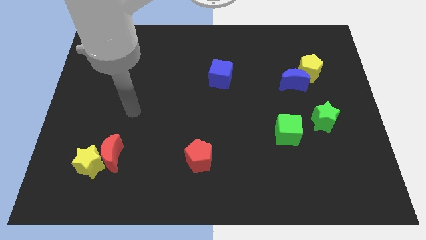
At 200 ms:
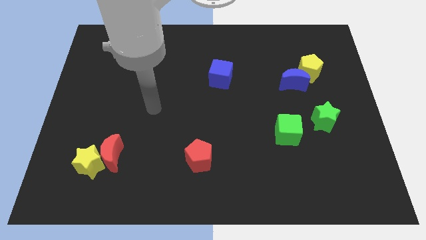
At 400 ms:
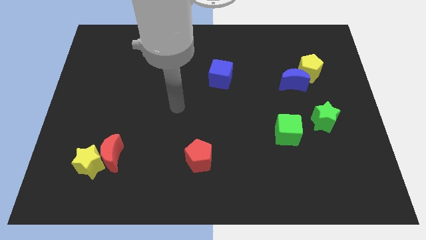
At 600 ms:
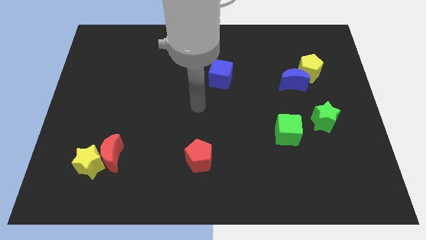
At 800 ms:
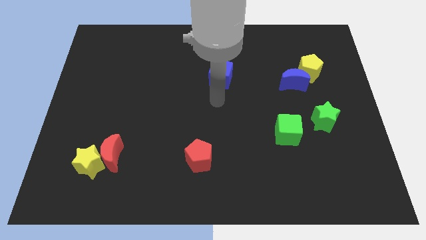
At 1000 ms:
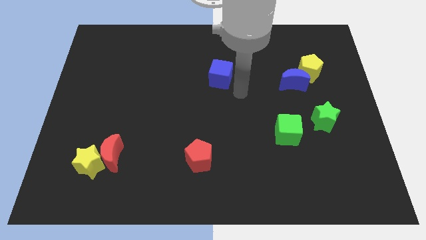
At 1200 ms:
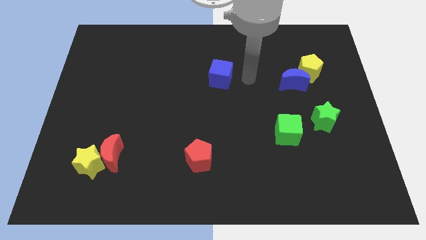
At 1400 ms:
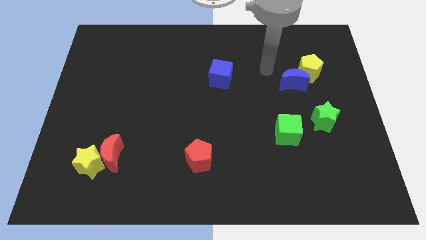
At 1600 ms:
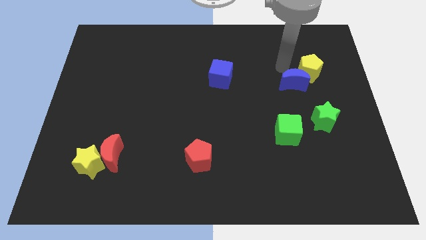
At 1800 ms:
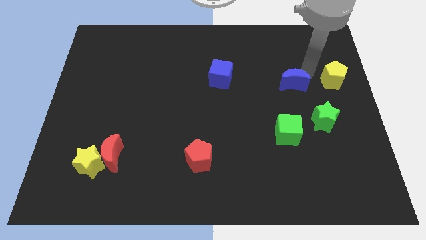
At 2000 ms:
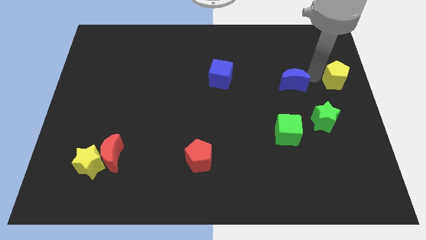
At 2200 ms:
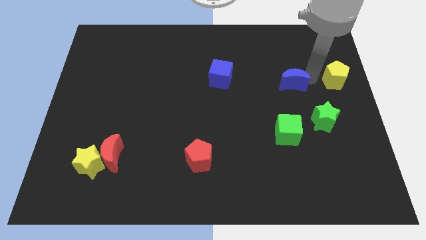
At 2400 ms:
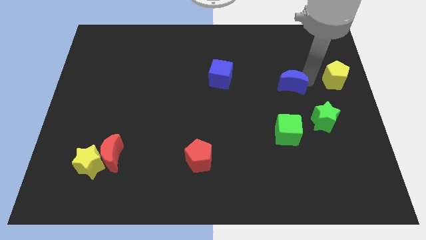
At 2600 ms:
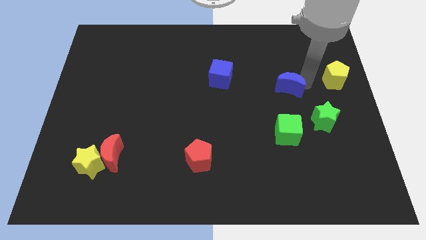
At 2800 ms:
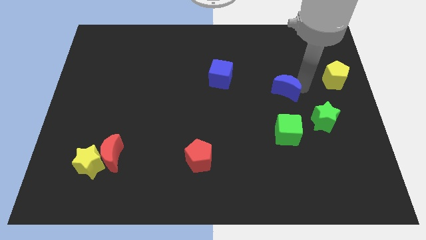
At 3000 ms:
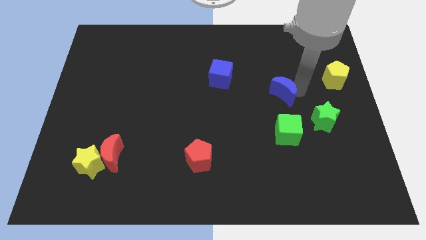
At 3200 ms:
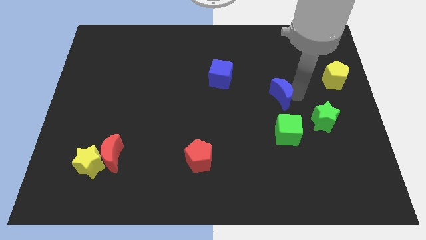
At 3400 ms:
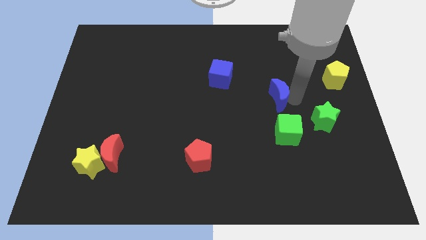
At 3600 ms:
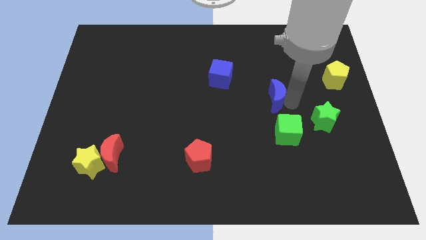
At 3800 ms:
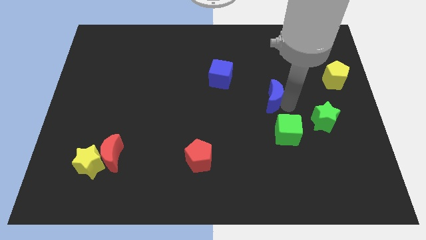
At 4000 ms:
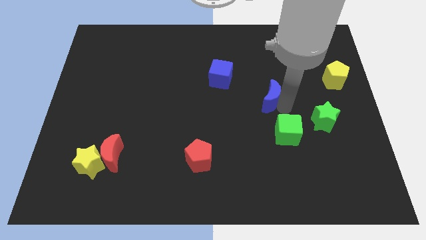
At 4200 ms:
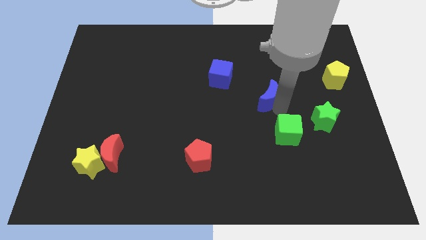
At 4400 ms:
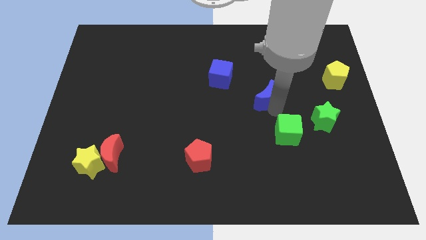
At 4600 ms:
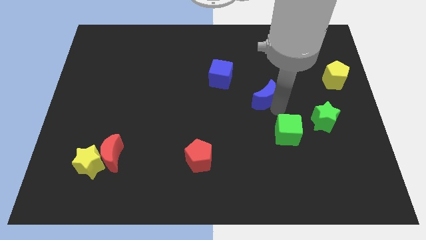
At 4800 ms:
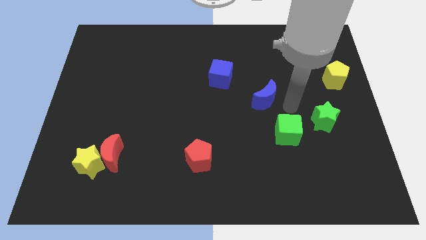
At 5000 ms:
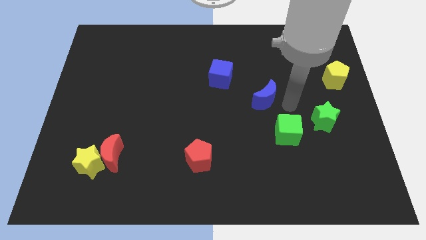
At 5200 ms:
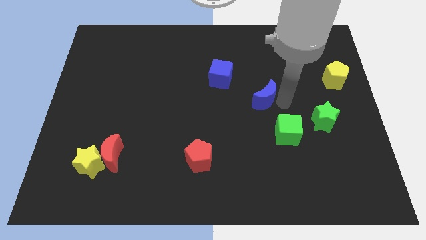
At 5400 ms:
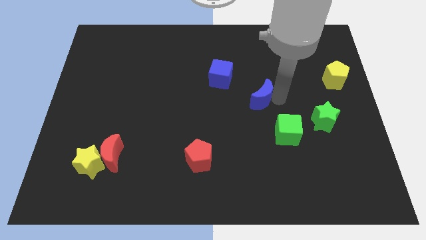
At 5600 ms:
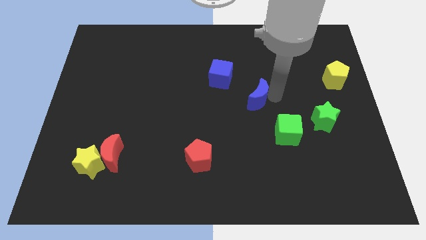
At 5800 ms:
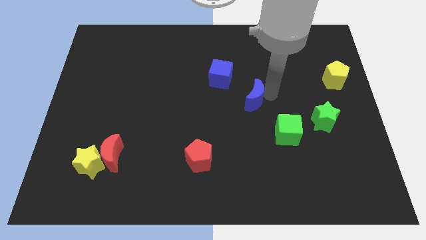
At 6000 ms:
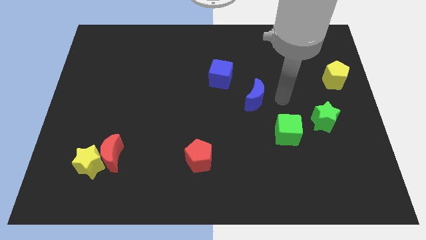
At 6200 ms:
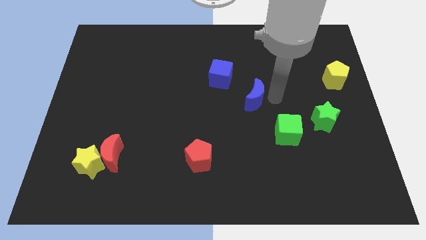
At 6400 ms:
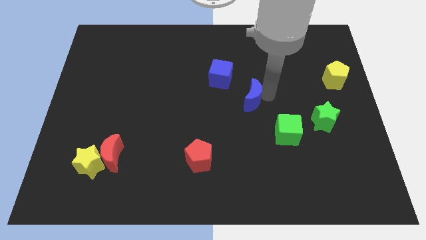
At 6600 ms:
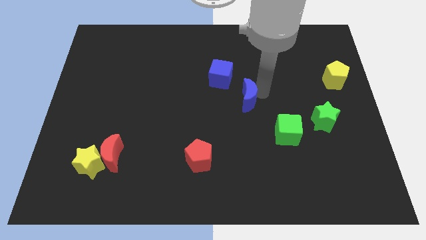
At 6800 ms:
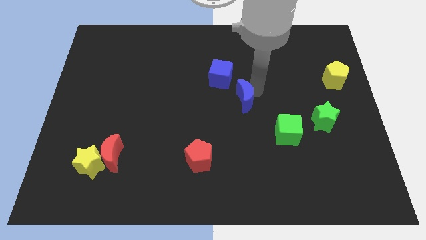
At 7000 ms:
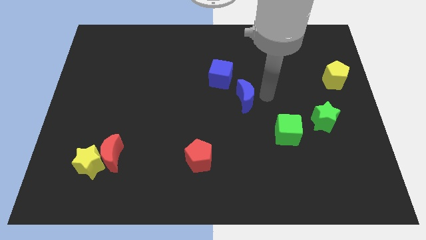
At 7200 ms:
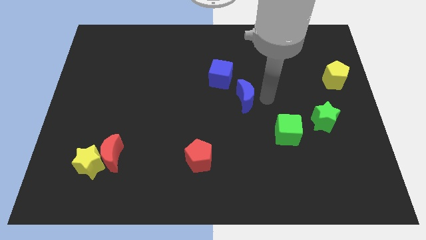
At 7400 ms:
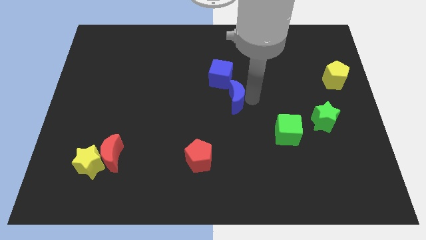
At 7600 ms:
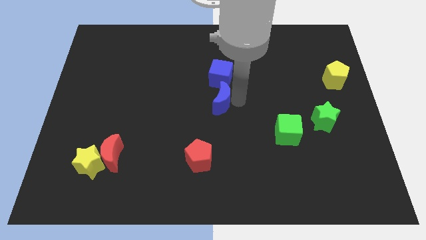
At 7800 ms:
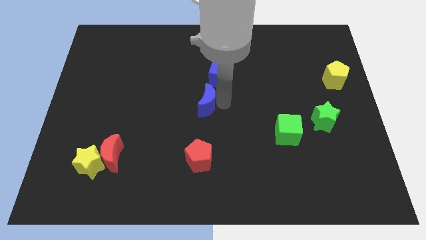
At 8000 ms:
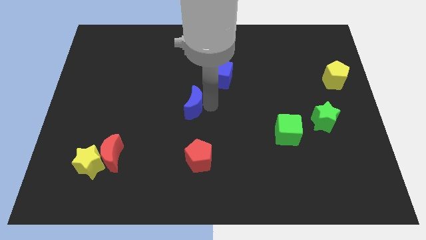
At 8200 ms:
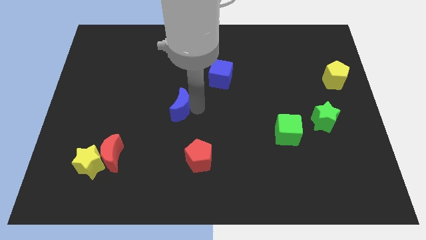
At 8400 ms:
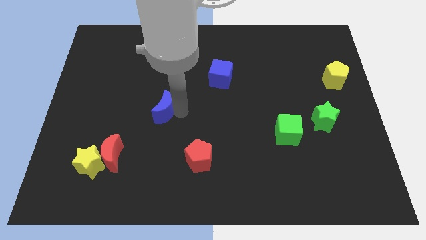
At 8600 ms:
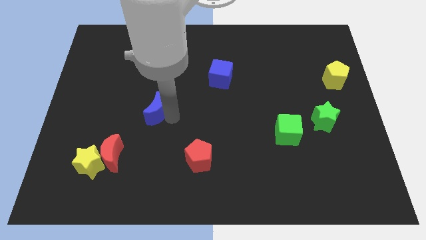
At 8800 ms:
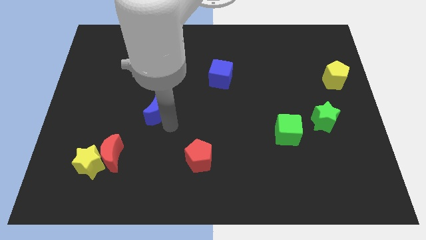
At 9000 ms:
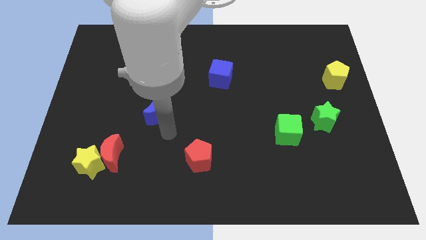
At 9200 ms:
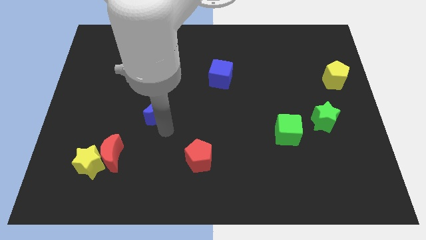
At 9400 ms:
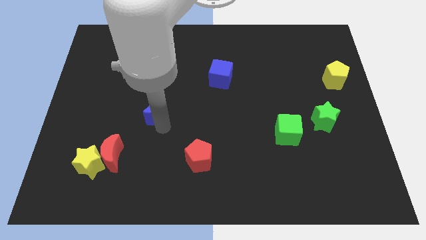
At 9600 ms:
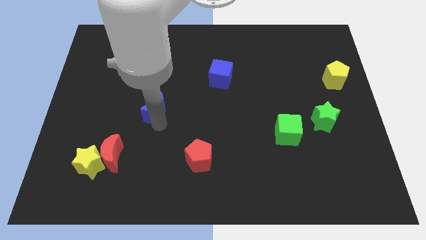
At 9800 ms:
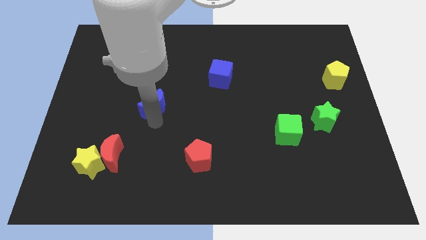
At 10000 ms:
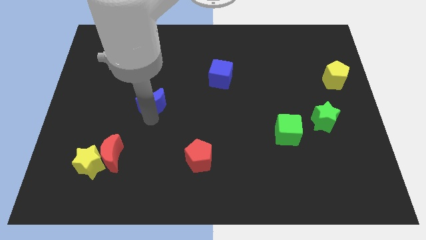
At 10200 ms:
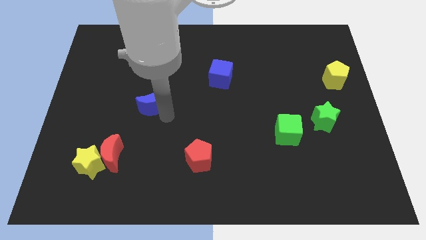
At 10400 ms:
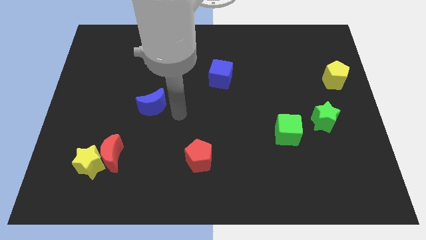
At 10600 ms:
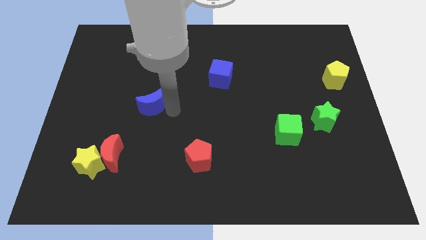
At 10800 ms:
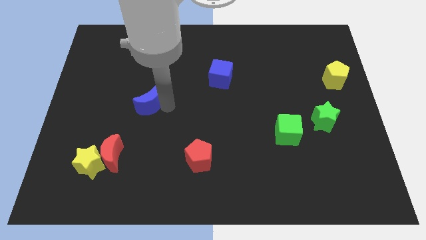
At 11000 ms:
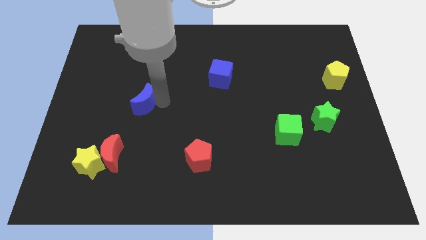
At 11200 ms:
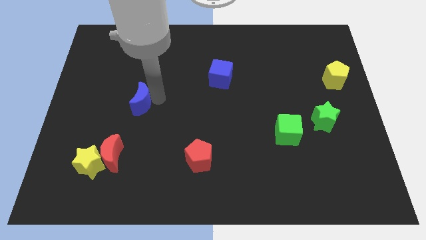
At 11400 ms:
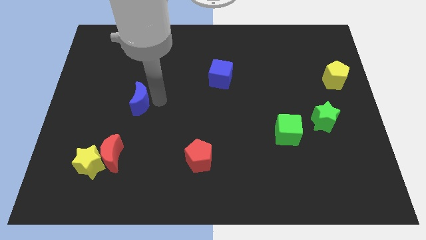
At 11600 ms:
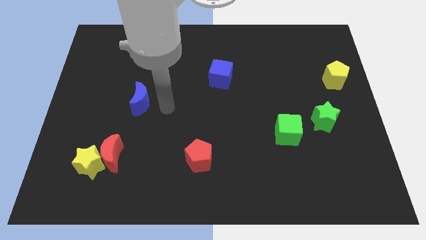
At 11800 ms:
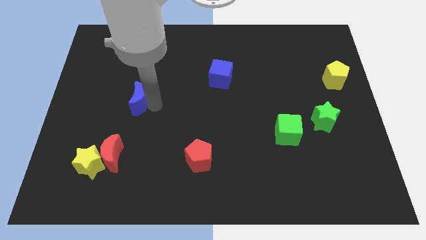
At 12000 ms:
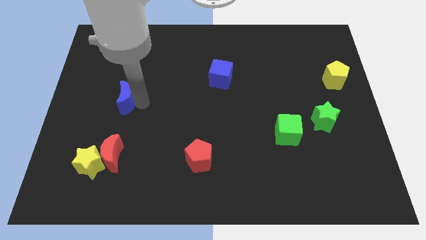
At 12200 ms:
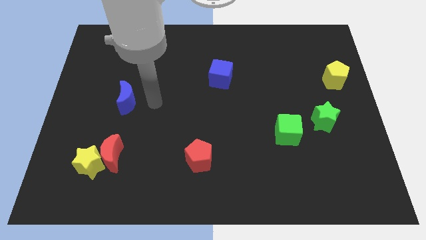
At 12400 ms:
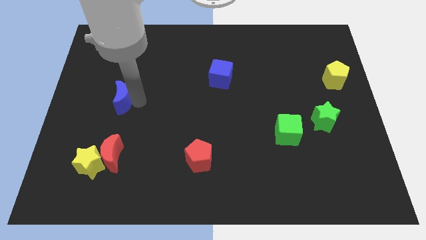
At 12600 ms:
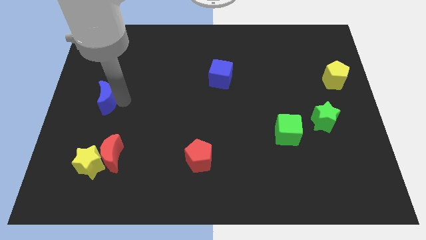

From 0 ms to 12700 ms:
push the blue moon to the left side of the board
